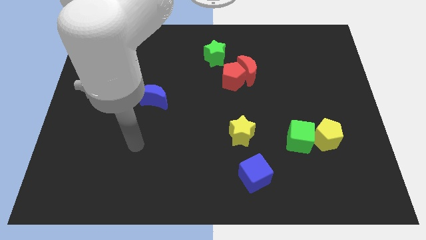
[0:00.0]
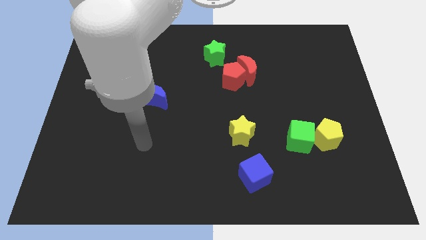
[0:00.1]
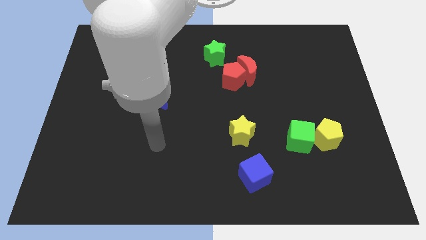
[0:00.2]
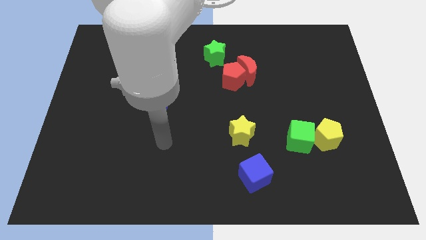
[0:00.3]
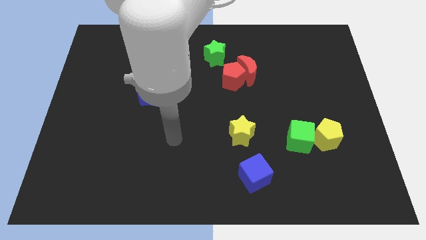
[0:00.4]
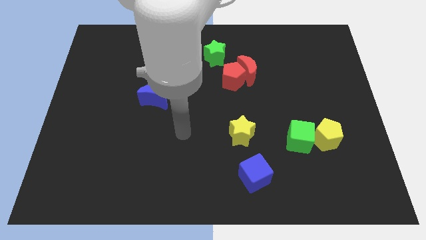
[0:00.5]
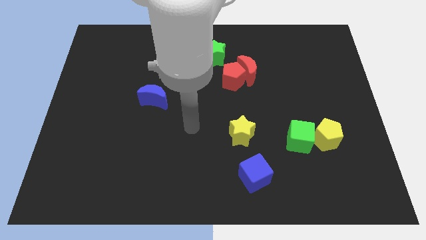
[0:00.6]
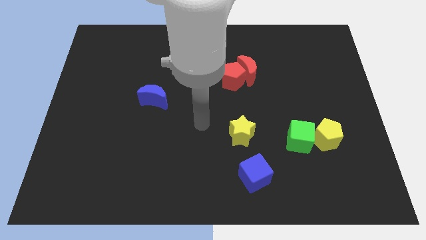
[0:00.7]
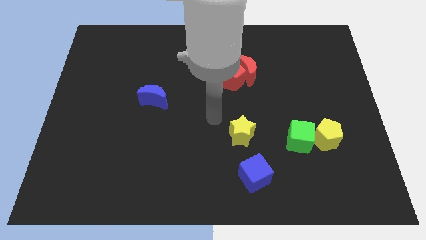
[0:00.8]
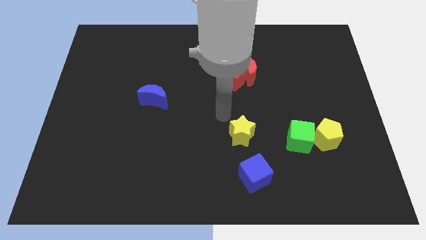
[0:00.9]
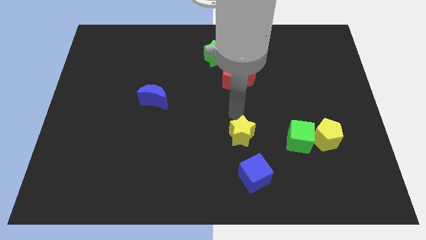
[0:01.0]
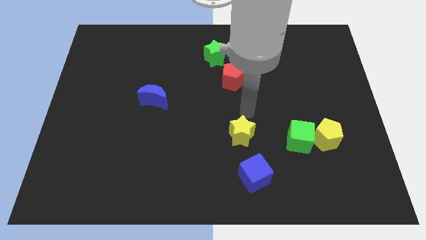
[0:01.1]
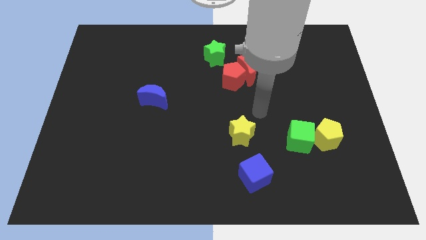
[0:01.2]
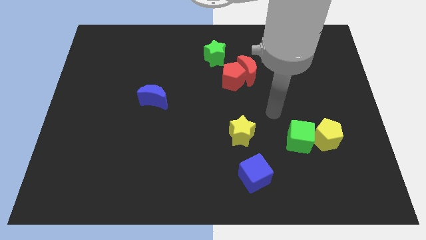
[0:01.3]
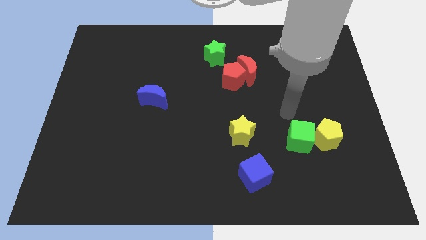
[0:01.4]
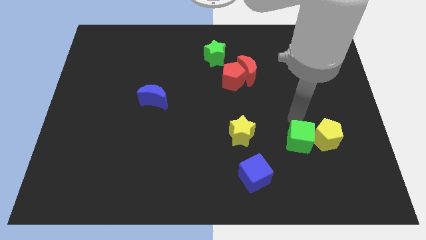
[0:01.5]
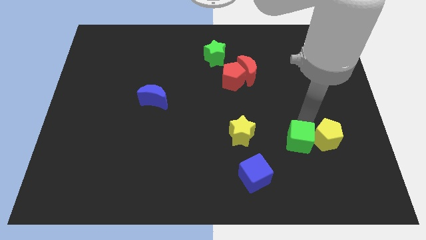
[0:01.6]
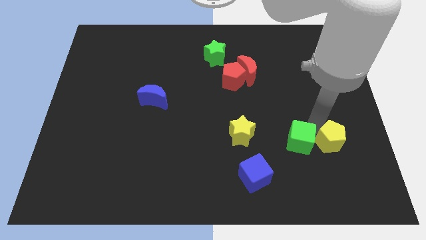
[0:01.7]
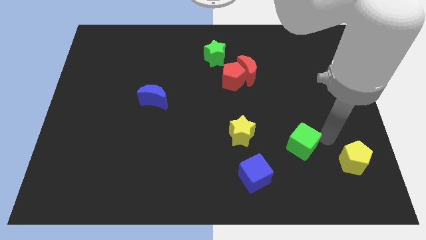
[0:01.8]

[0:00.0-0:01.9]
move the green cube away from the yellow pentagon

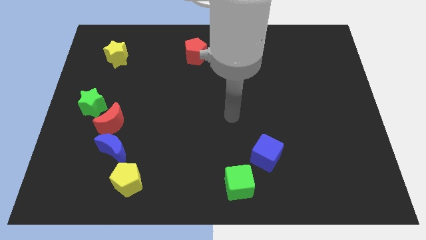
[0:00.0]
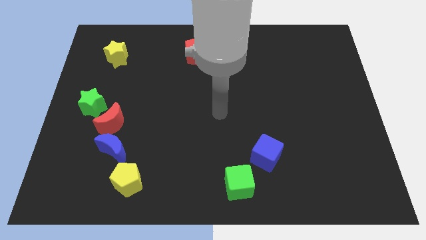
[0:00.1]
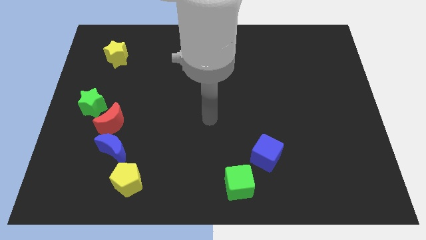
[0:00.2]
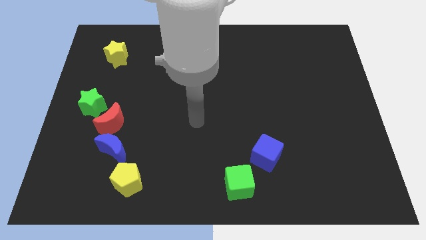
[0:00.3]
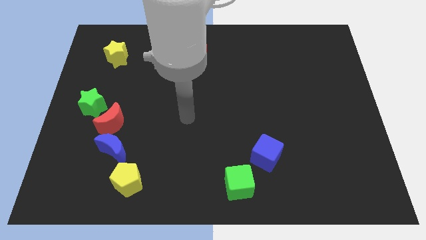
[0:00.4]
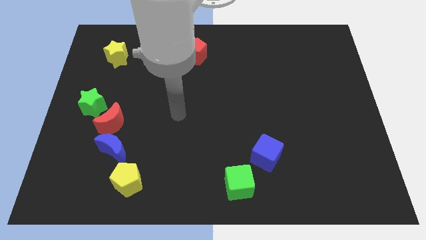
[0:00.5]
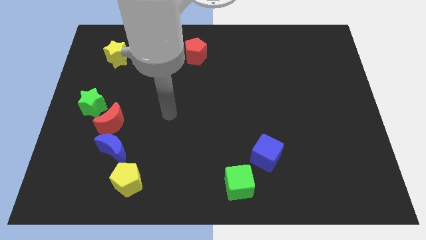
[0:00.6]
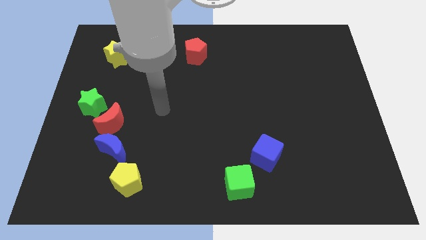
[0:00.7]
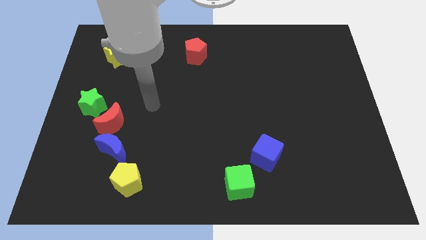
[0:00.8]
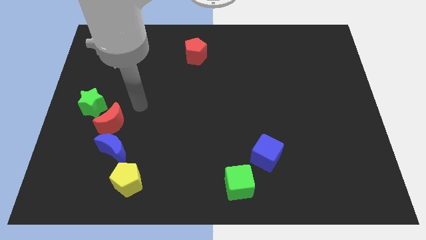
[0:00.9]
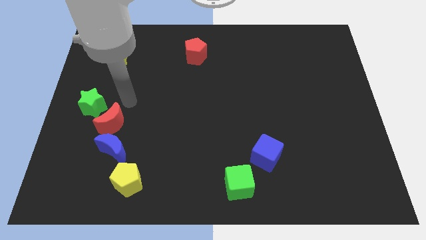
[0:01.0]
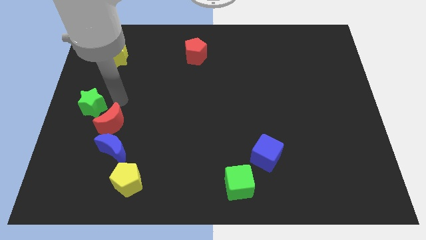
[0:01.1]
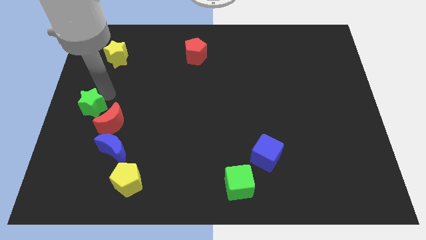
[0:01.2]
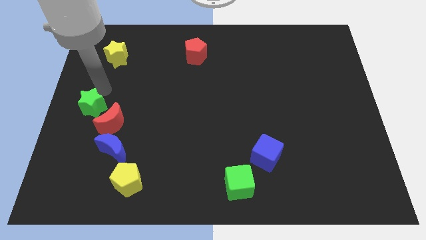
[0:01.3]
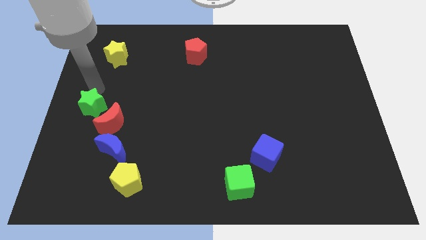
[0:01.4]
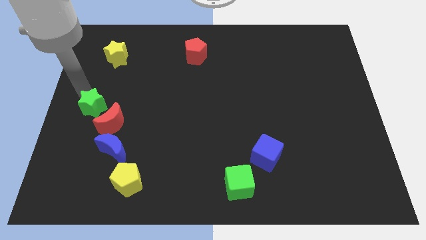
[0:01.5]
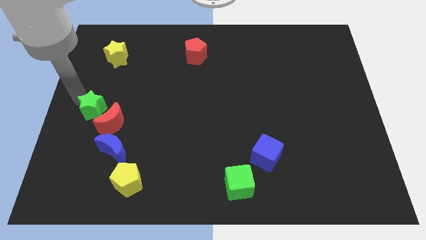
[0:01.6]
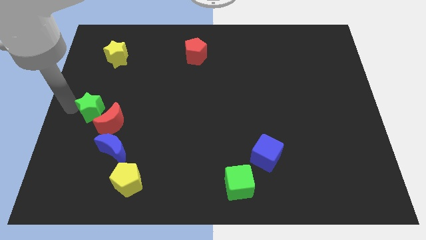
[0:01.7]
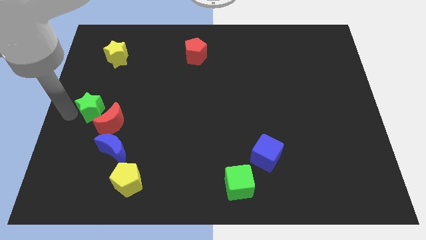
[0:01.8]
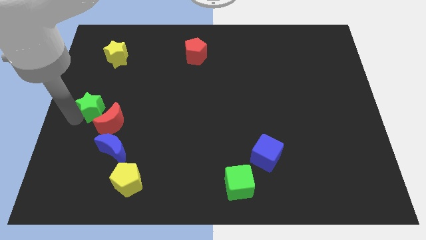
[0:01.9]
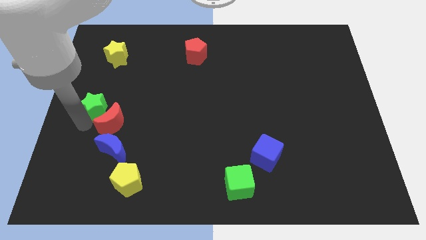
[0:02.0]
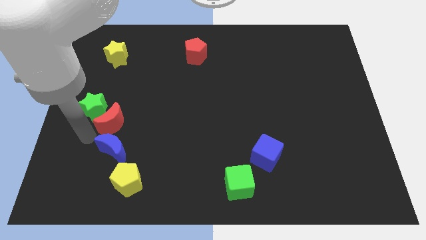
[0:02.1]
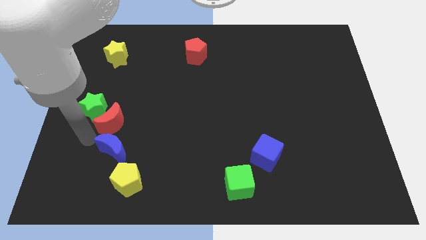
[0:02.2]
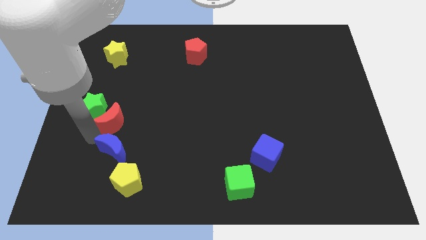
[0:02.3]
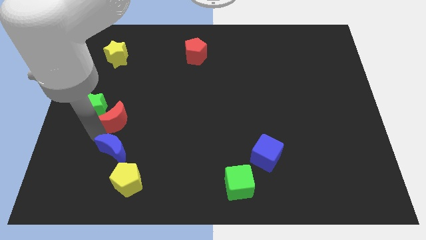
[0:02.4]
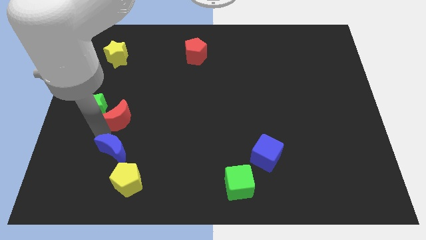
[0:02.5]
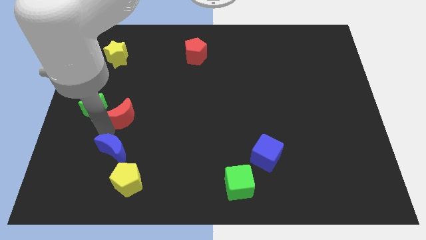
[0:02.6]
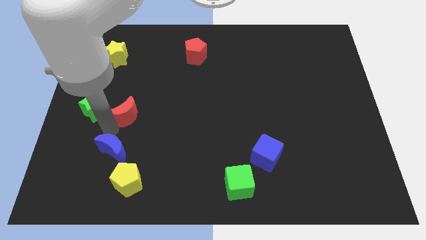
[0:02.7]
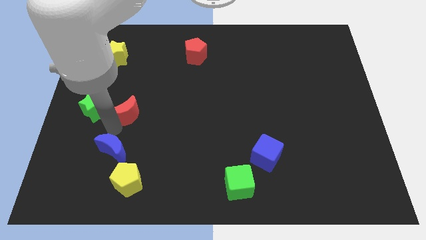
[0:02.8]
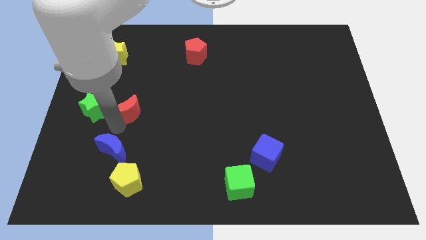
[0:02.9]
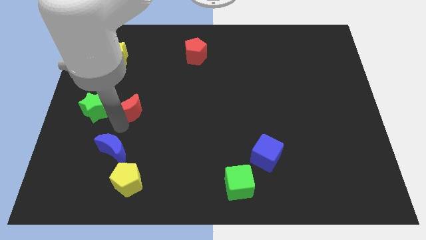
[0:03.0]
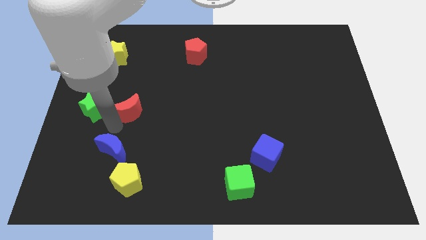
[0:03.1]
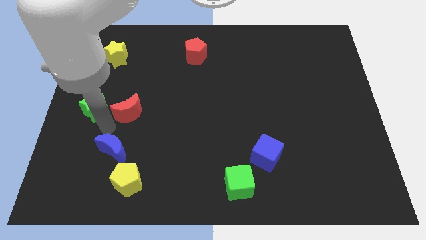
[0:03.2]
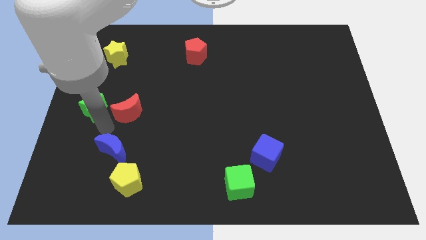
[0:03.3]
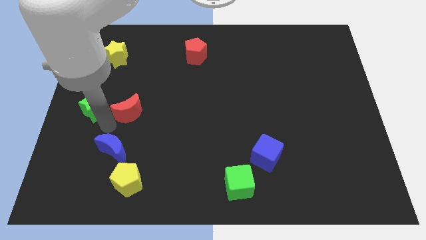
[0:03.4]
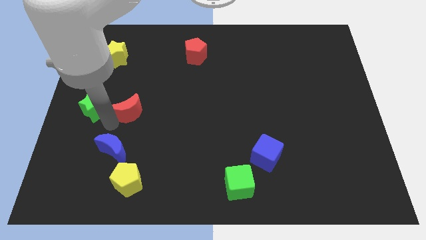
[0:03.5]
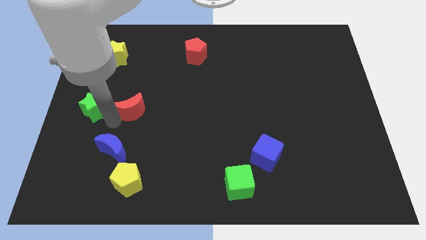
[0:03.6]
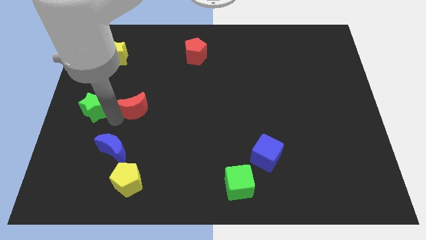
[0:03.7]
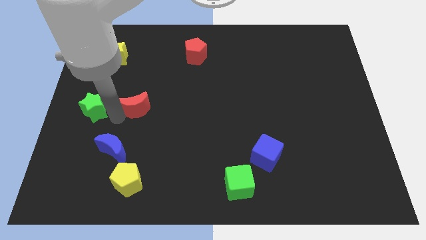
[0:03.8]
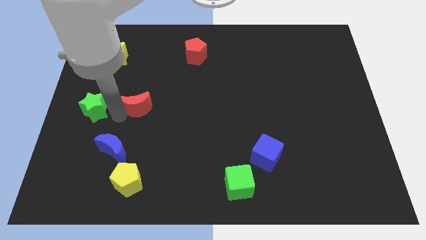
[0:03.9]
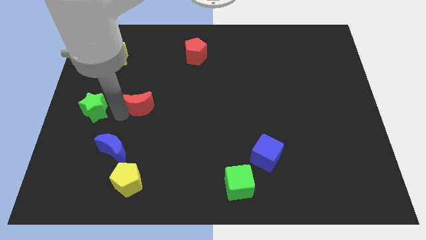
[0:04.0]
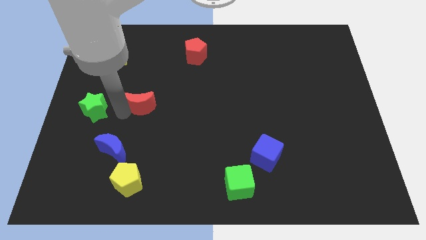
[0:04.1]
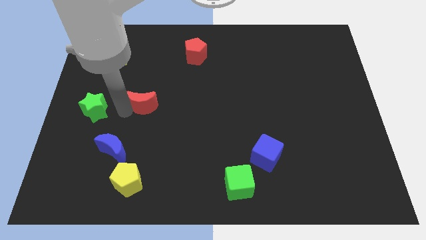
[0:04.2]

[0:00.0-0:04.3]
separate the red moon from the blue moon and green star

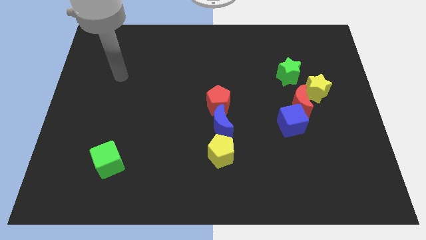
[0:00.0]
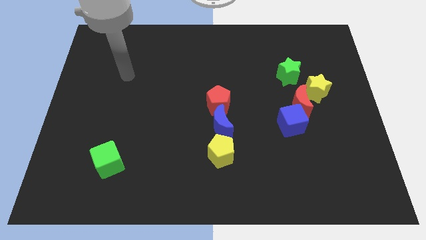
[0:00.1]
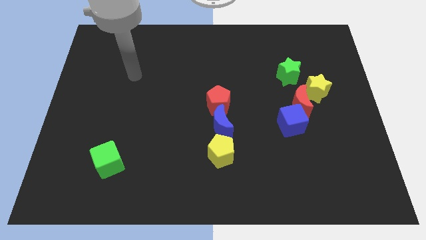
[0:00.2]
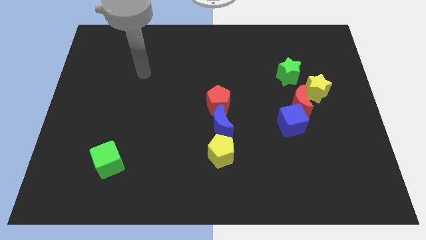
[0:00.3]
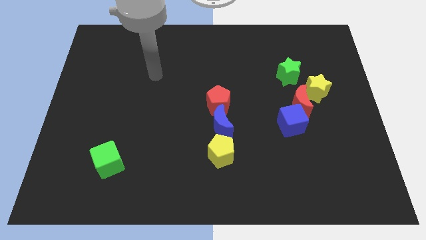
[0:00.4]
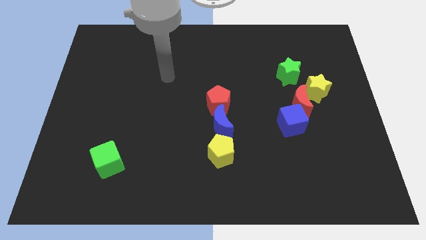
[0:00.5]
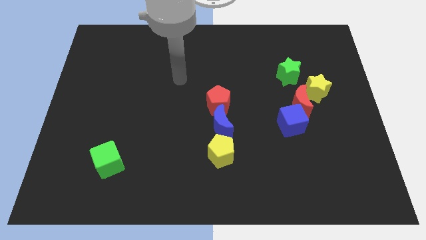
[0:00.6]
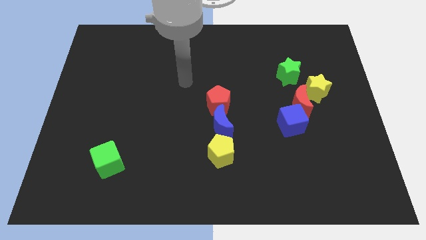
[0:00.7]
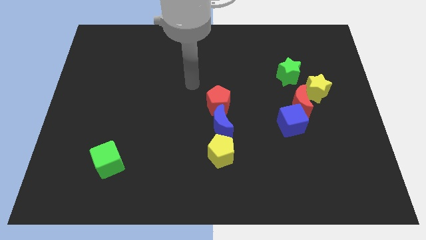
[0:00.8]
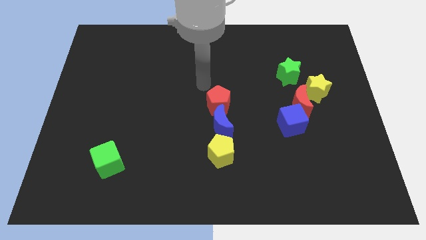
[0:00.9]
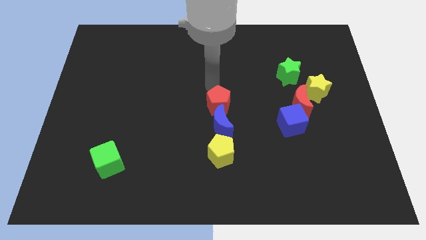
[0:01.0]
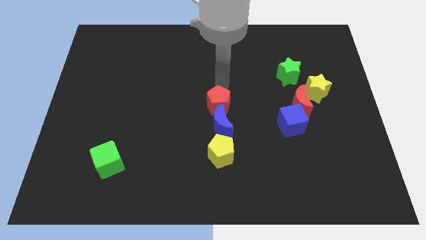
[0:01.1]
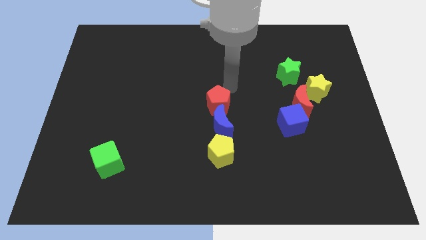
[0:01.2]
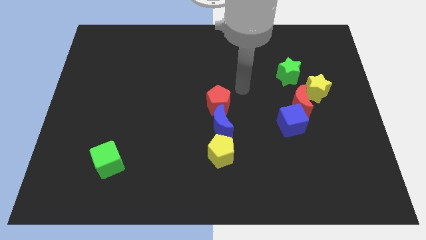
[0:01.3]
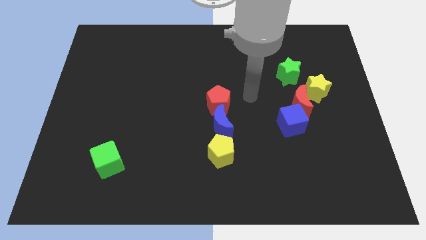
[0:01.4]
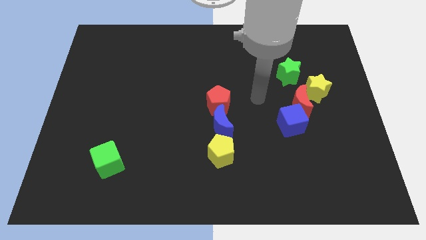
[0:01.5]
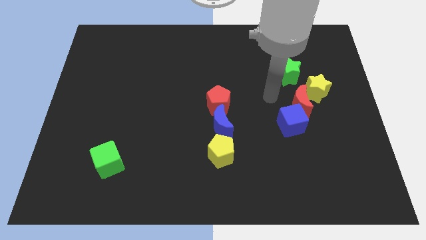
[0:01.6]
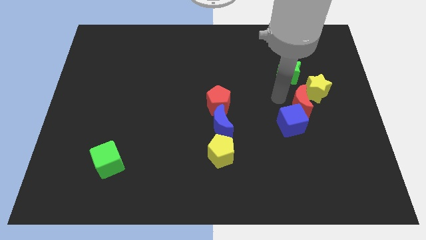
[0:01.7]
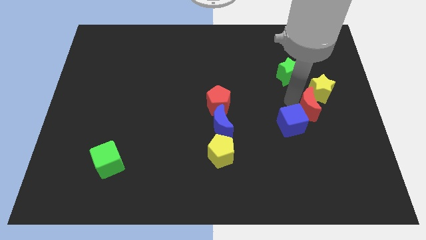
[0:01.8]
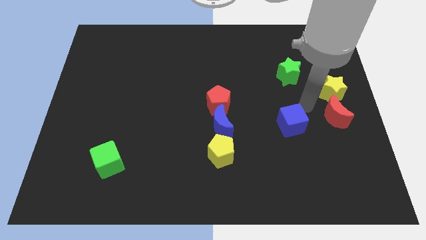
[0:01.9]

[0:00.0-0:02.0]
move the blue cube away from the red moon

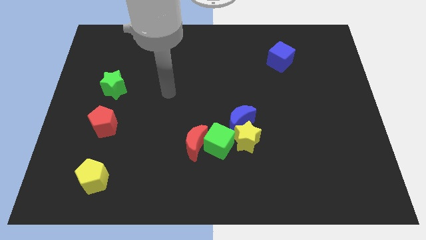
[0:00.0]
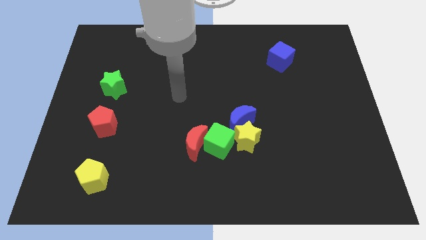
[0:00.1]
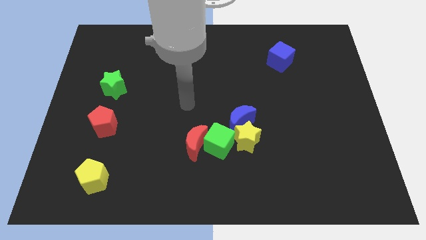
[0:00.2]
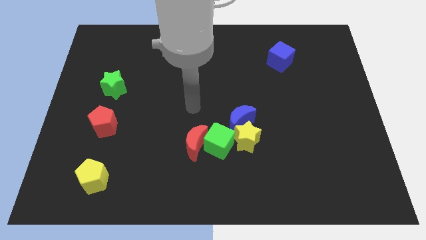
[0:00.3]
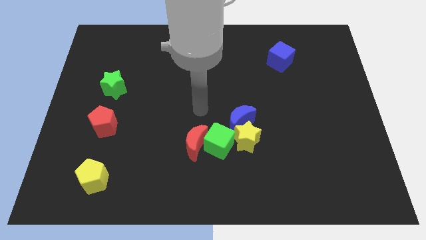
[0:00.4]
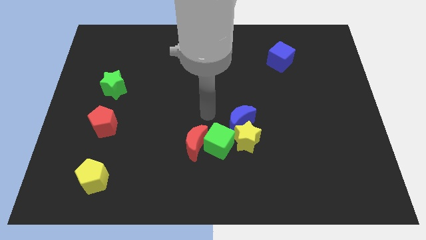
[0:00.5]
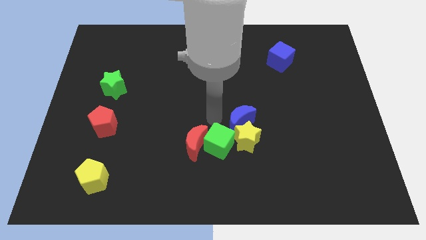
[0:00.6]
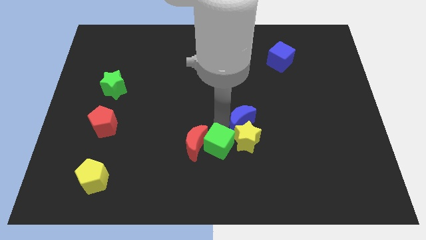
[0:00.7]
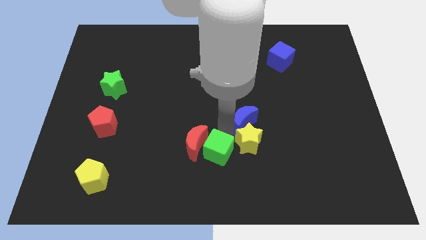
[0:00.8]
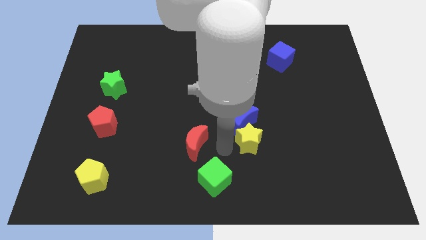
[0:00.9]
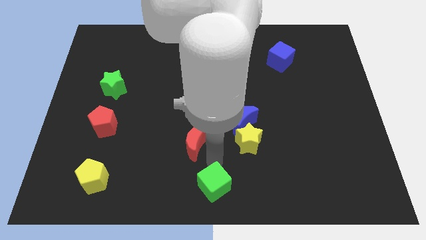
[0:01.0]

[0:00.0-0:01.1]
separate the red moon from the green cube
